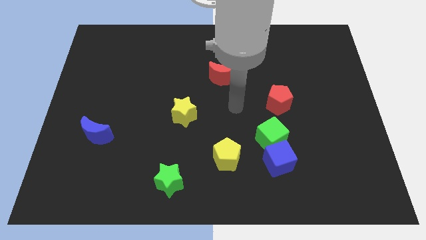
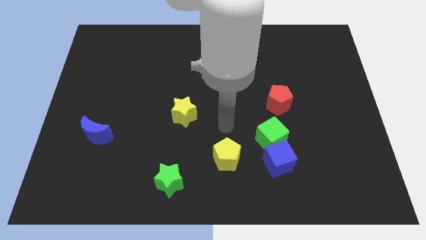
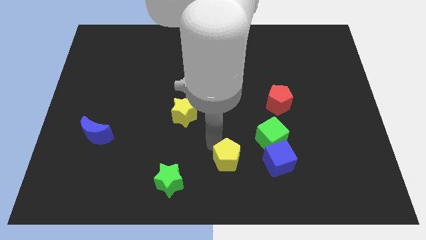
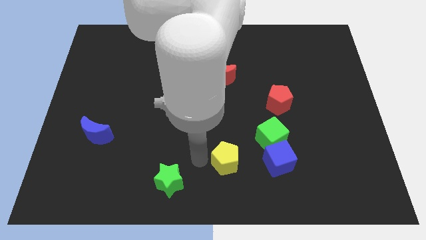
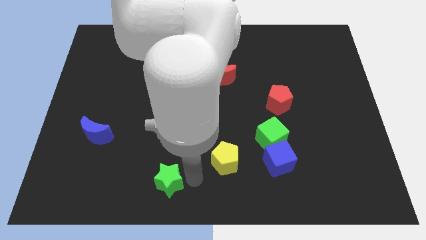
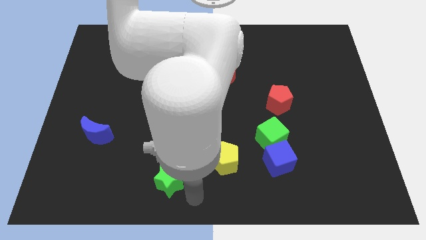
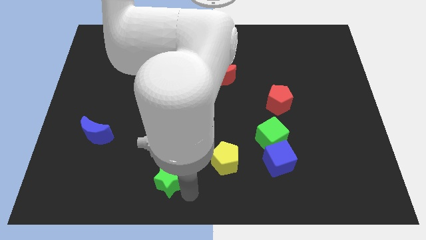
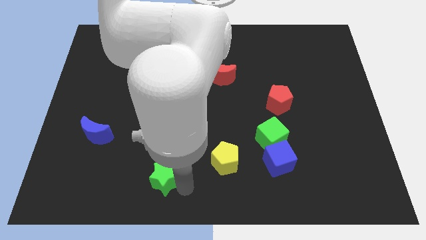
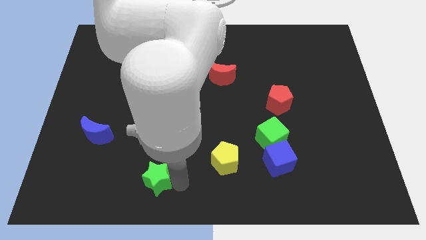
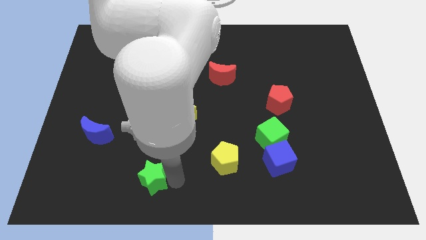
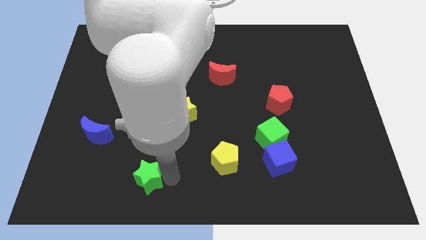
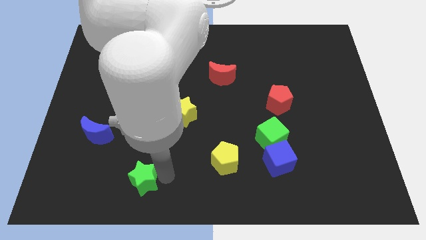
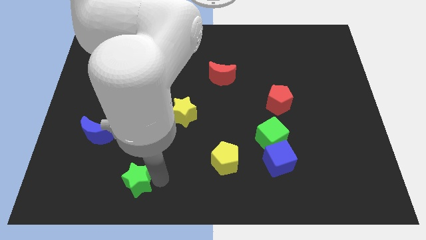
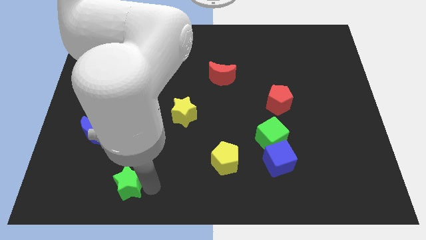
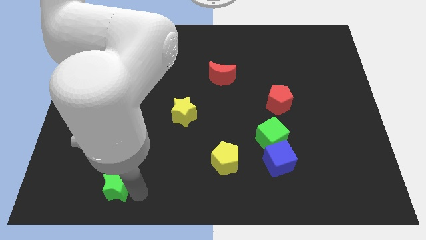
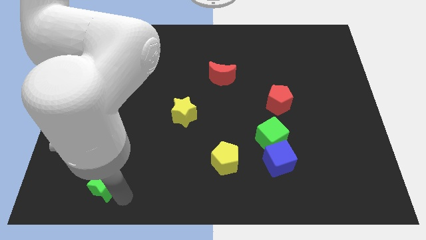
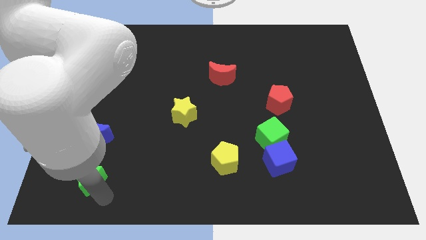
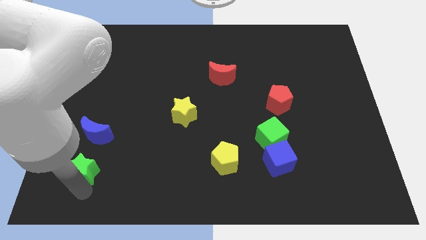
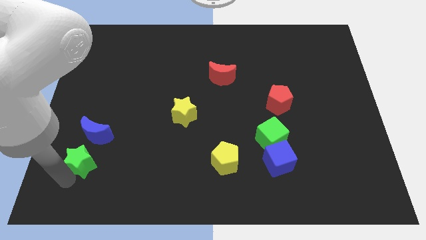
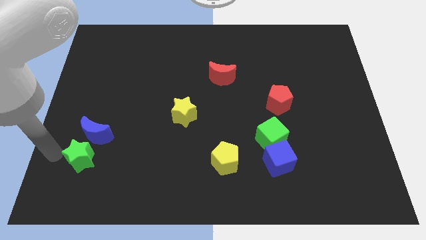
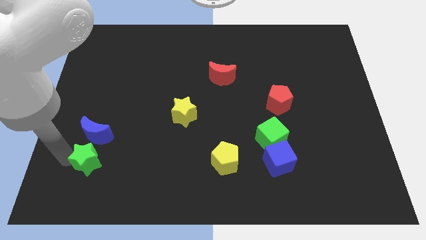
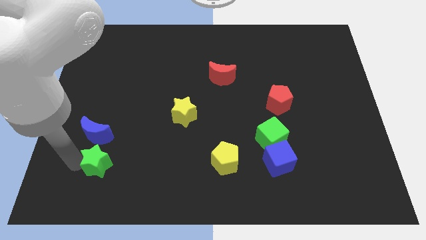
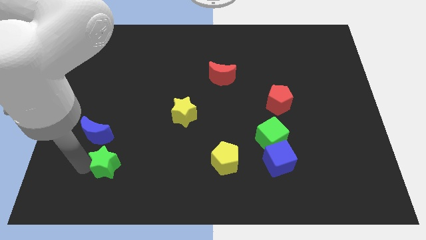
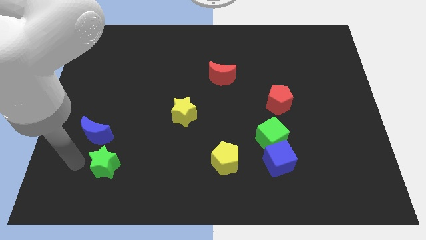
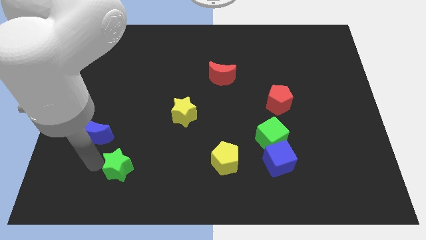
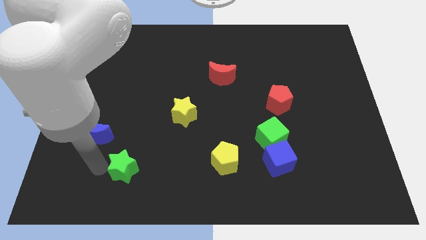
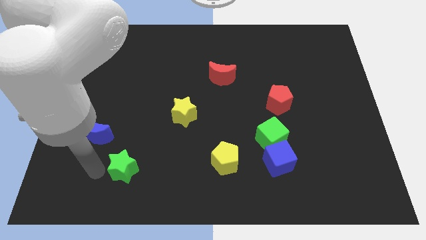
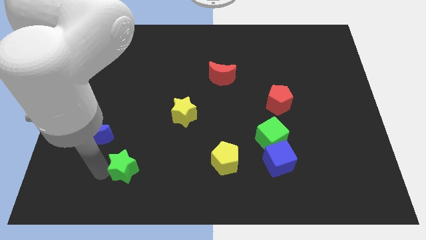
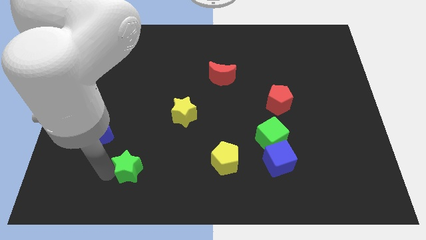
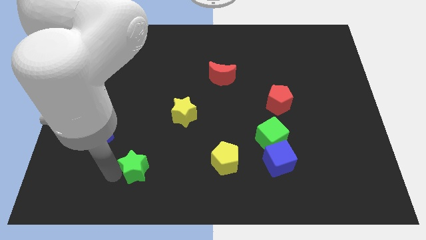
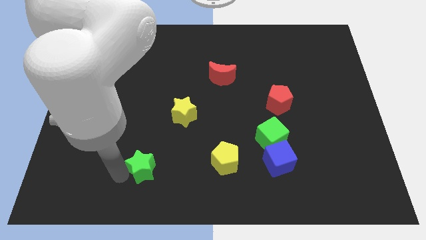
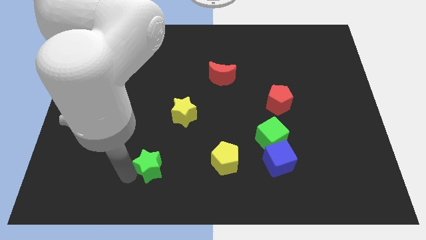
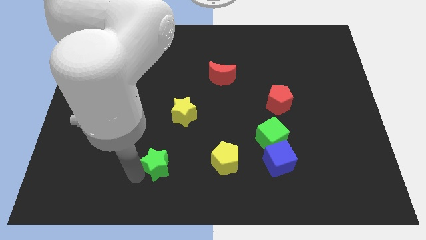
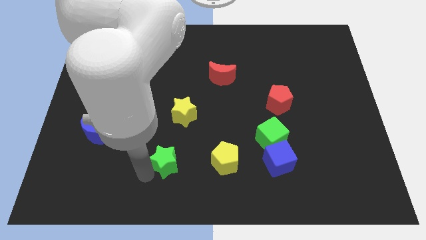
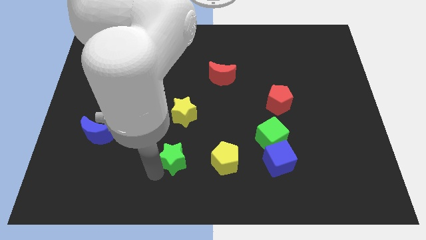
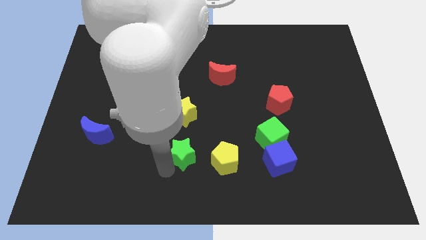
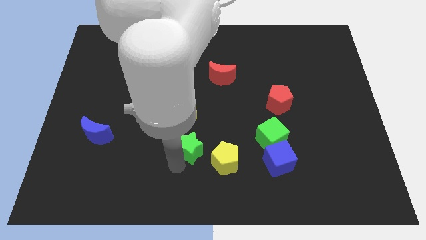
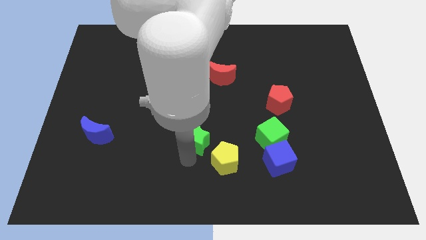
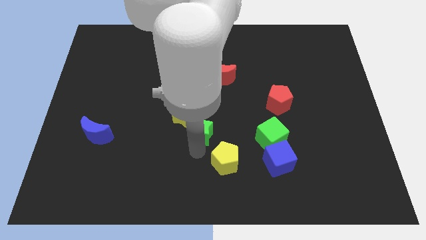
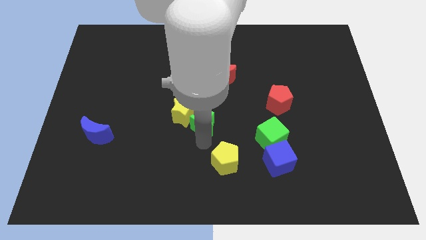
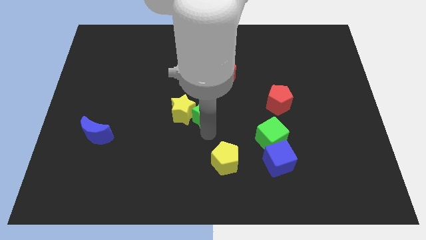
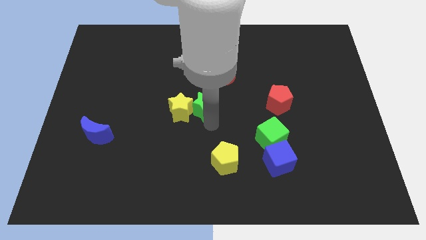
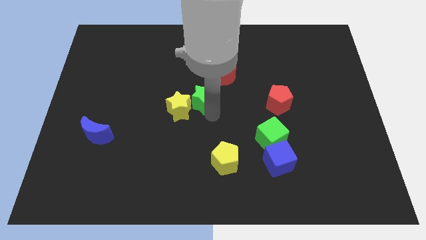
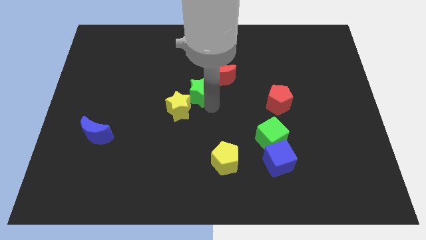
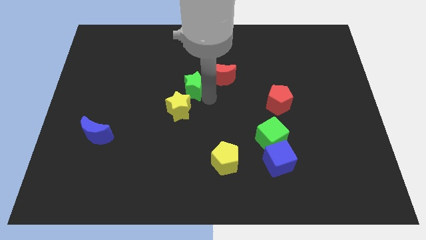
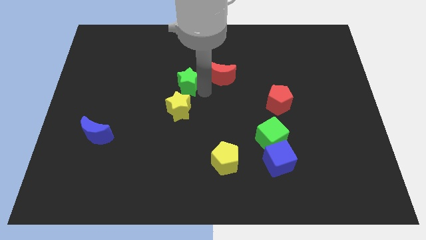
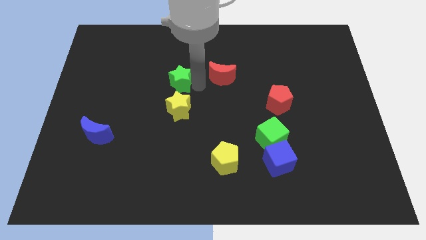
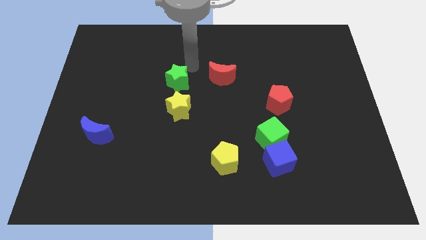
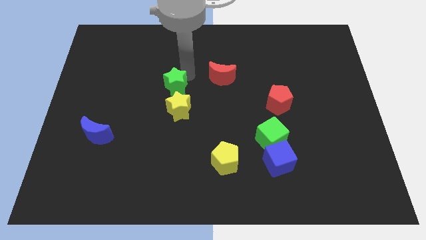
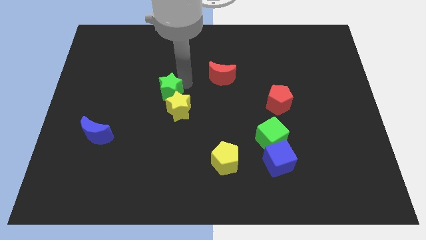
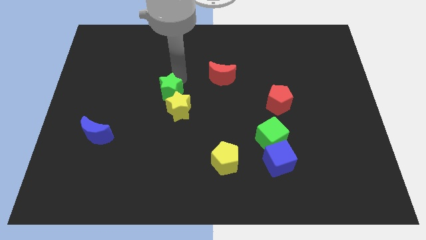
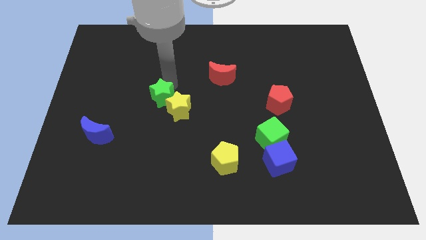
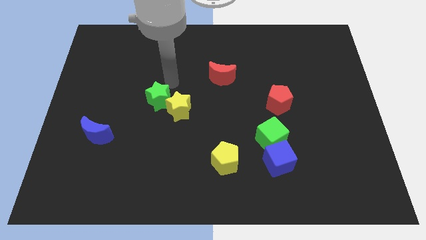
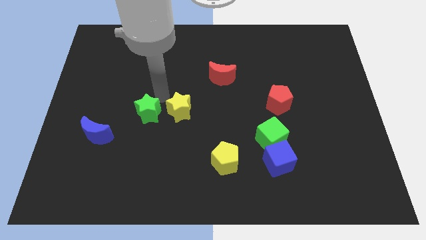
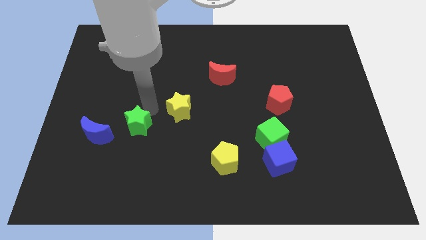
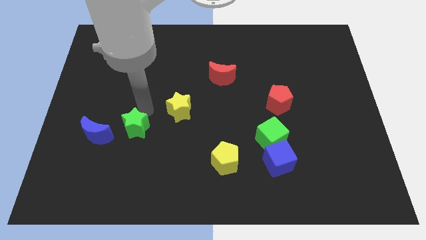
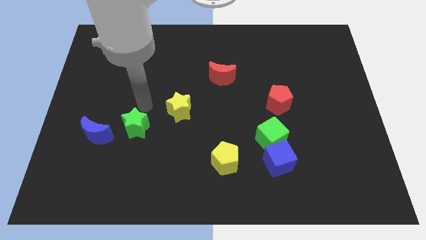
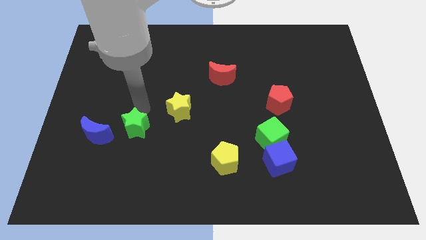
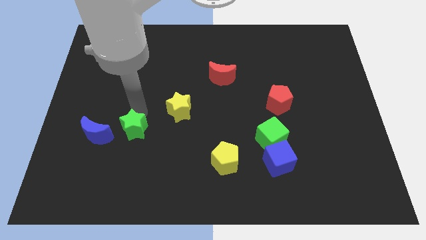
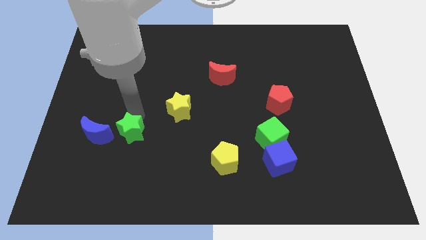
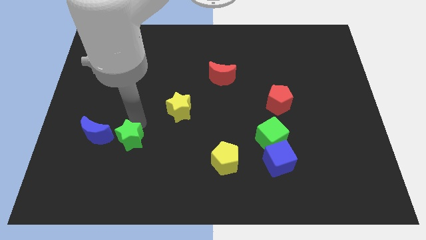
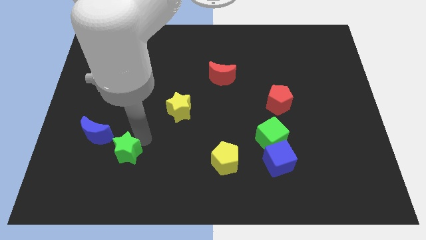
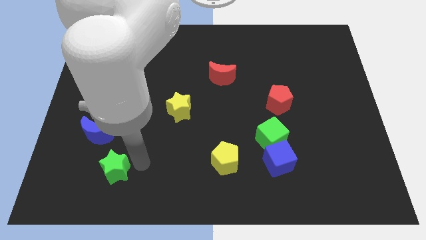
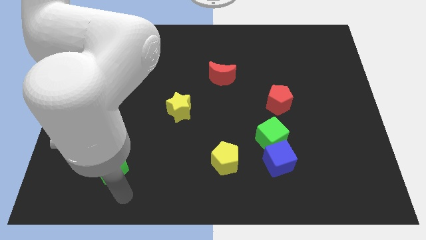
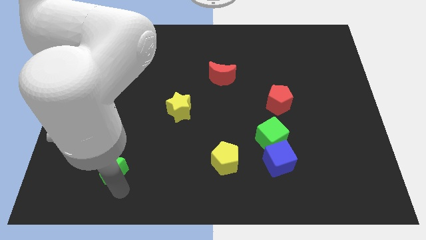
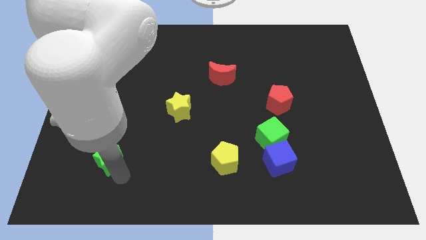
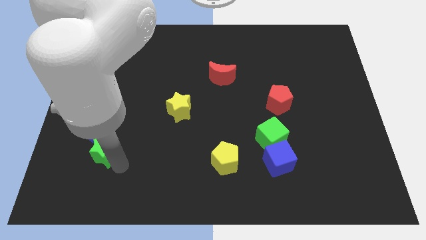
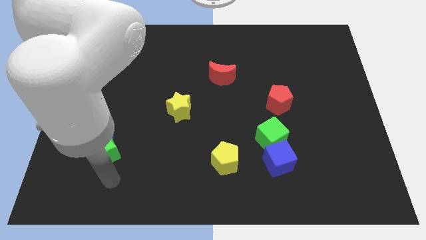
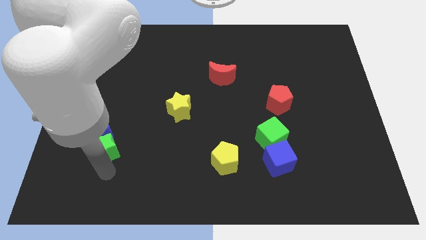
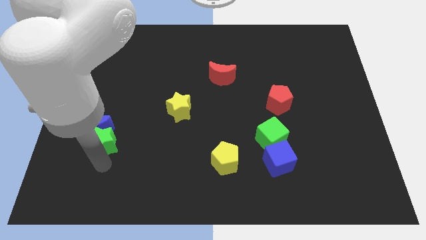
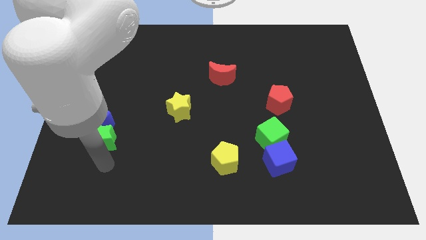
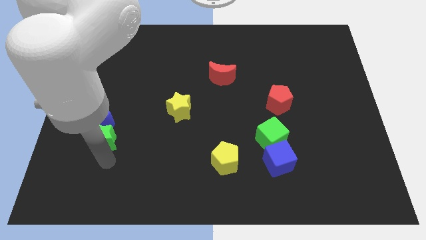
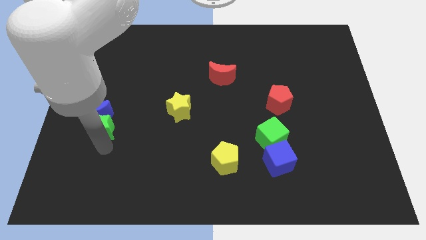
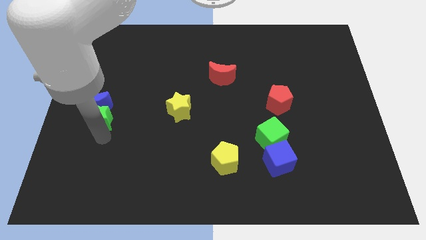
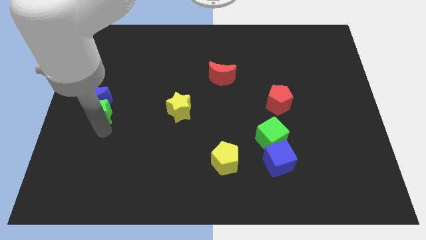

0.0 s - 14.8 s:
move the green star to the center left
